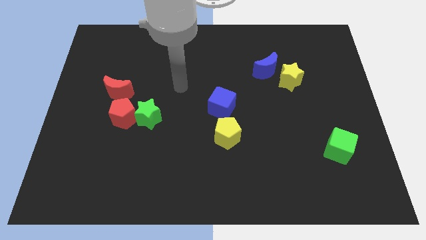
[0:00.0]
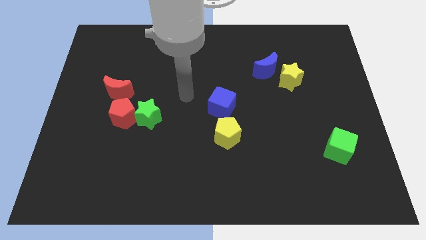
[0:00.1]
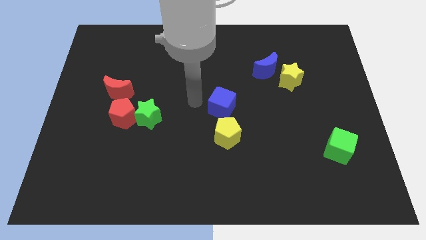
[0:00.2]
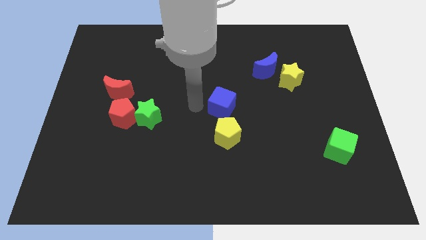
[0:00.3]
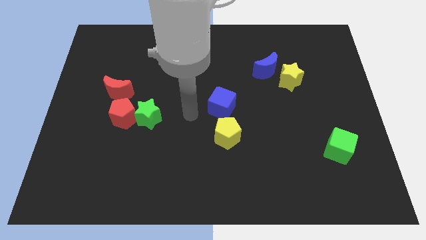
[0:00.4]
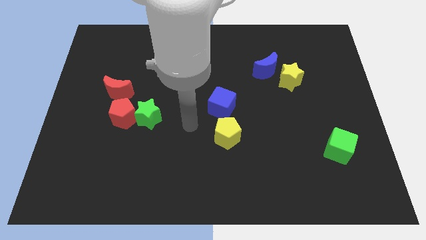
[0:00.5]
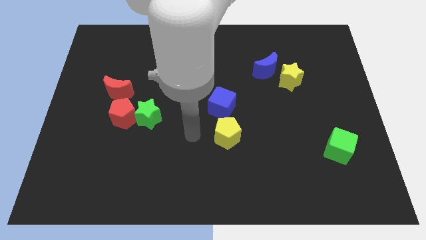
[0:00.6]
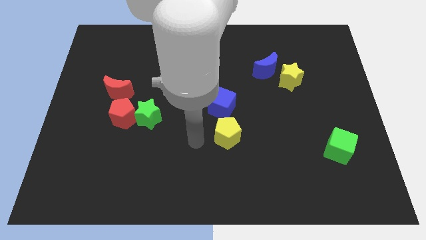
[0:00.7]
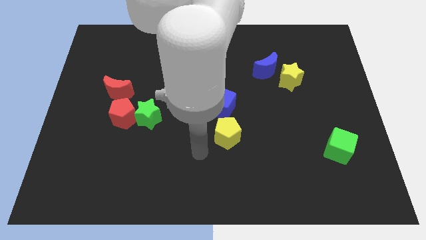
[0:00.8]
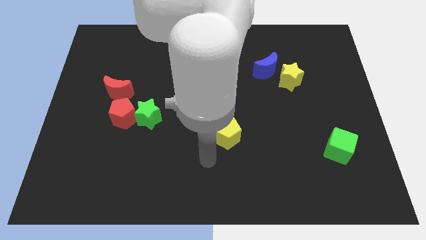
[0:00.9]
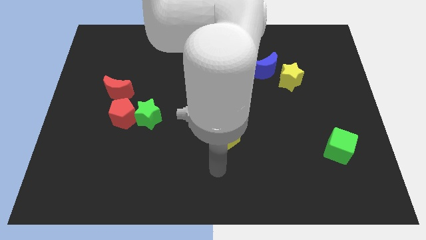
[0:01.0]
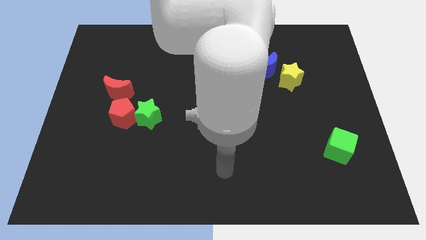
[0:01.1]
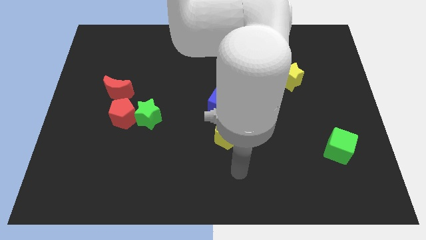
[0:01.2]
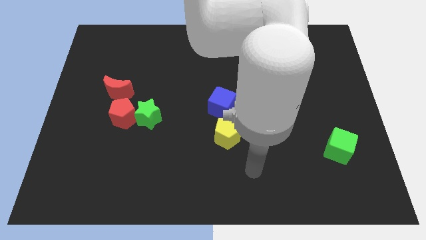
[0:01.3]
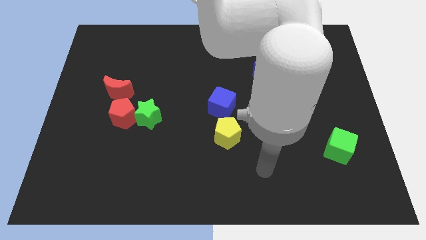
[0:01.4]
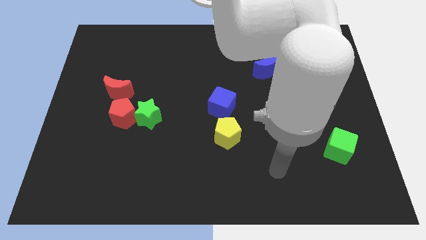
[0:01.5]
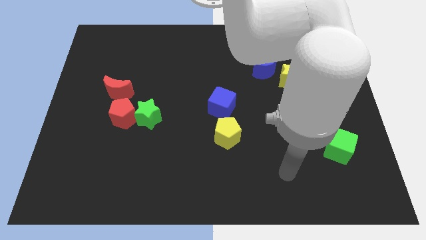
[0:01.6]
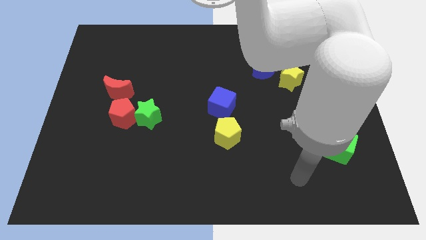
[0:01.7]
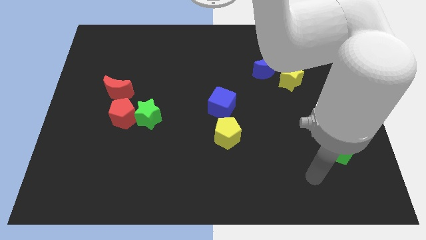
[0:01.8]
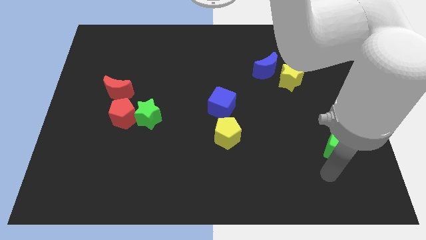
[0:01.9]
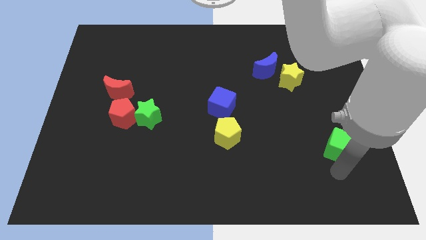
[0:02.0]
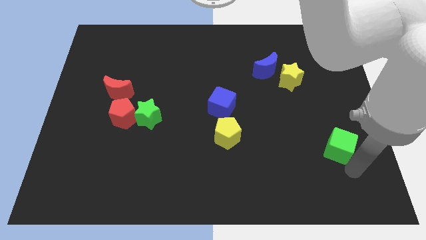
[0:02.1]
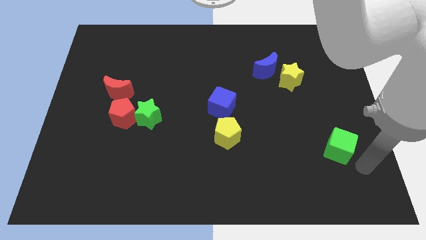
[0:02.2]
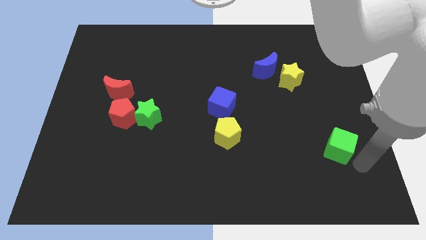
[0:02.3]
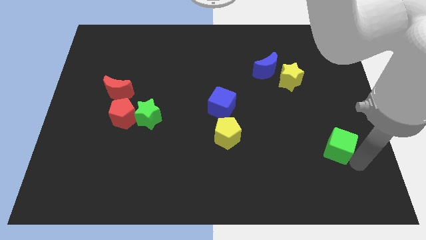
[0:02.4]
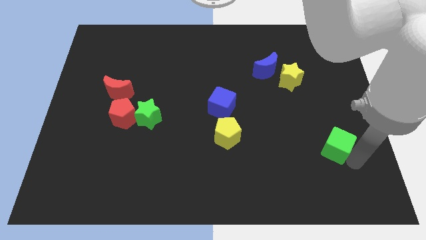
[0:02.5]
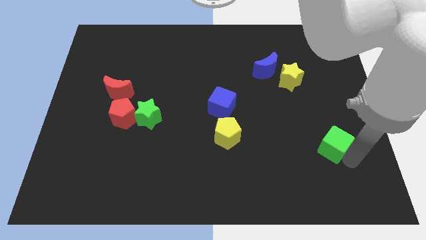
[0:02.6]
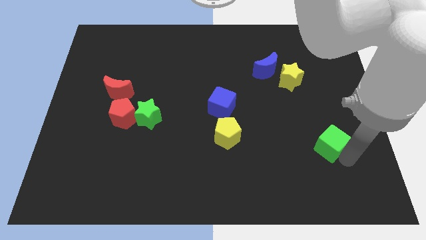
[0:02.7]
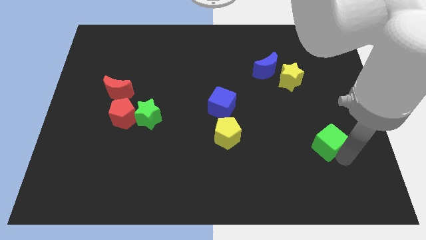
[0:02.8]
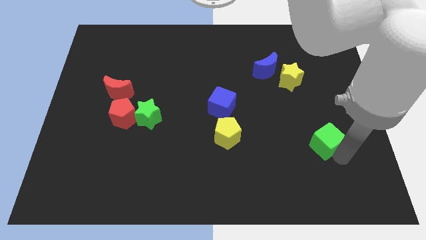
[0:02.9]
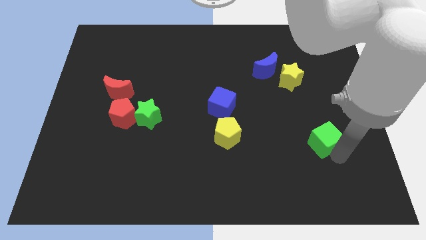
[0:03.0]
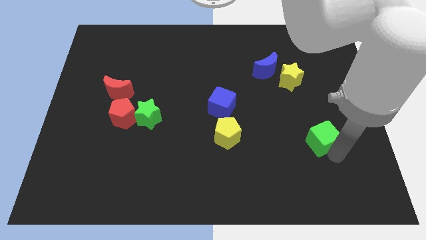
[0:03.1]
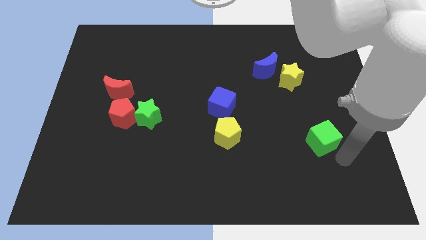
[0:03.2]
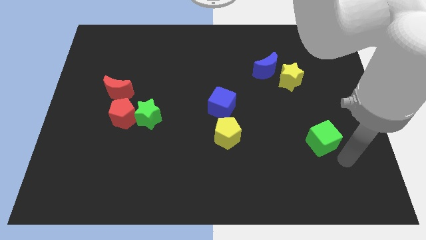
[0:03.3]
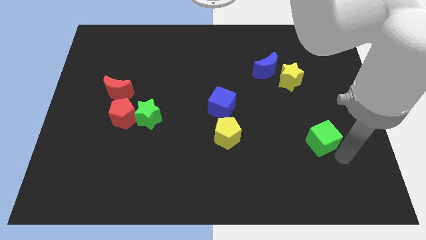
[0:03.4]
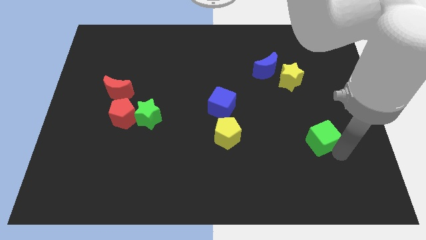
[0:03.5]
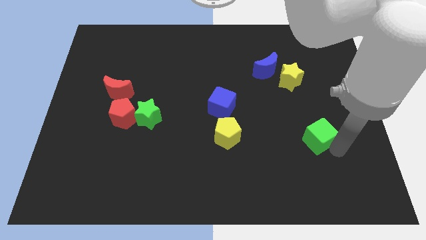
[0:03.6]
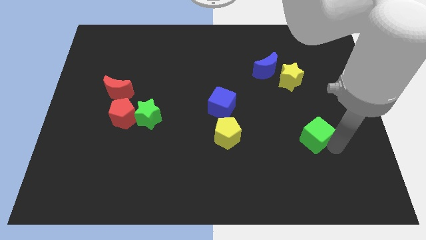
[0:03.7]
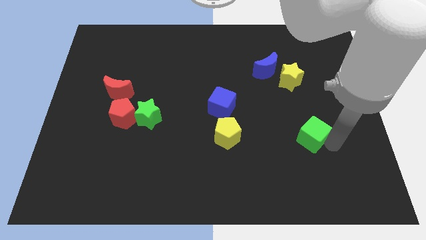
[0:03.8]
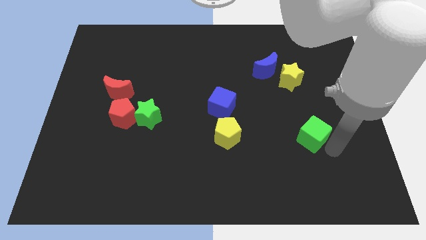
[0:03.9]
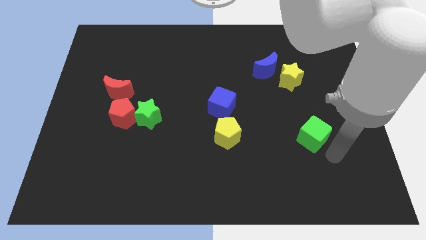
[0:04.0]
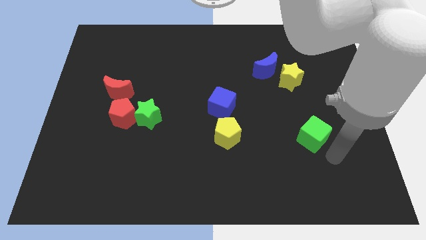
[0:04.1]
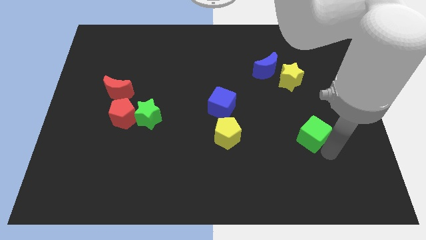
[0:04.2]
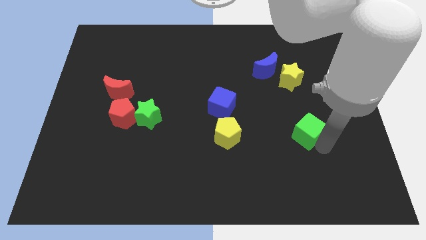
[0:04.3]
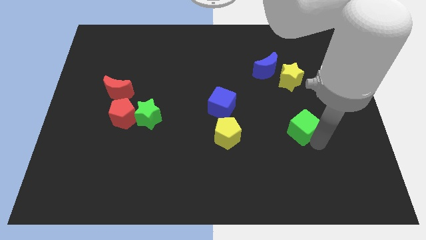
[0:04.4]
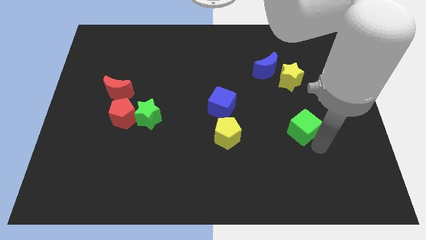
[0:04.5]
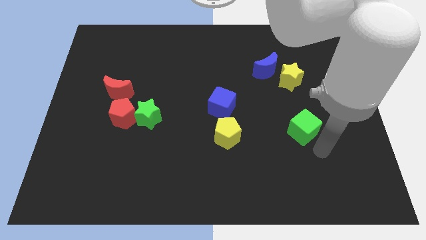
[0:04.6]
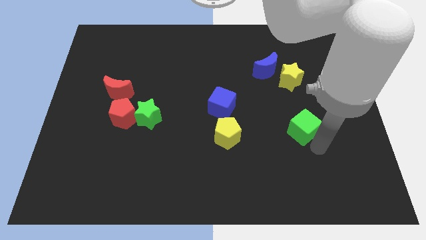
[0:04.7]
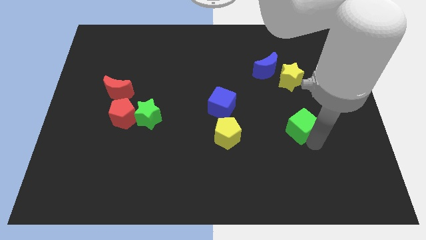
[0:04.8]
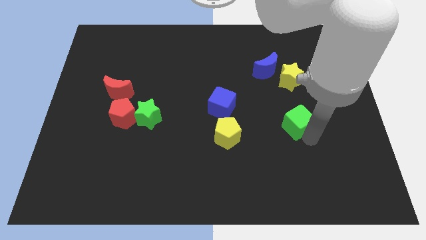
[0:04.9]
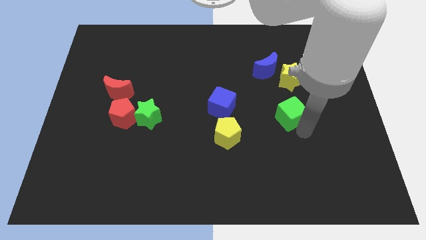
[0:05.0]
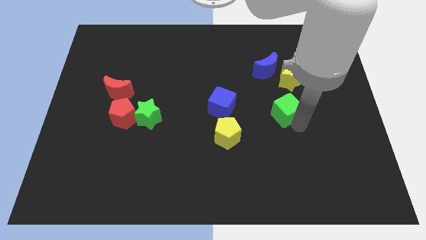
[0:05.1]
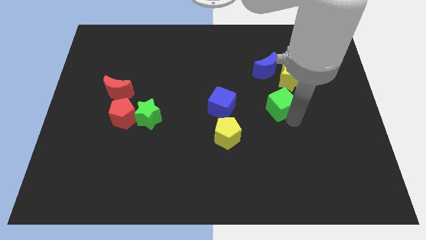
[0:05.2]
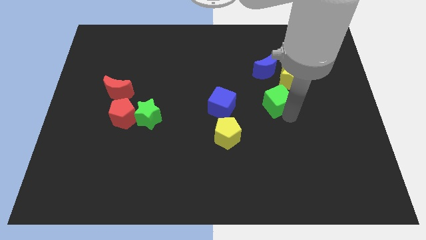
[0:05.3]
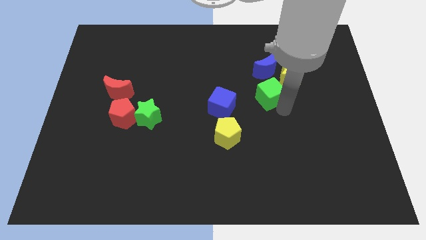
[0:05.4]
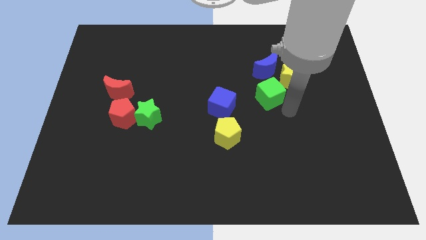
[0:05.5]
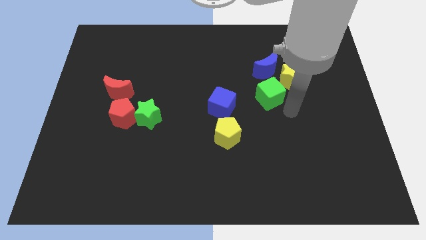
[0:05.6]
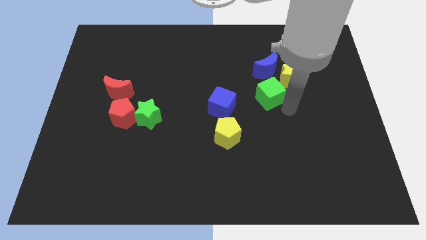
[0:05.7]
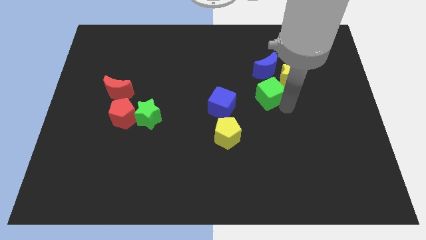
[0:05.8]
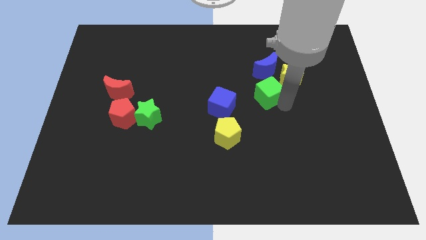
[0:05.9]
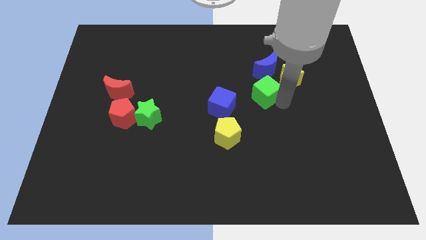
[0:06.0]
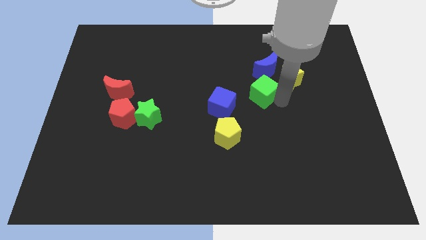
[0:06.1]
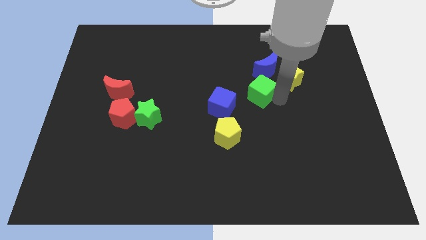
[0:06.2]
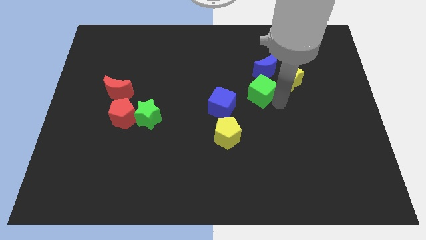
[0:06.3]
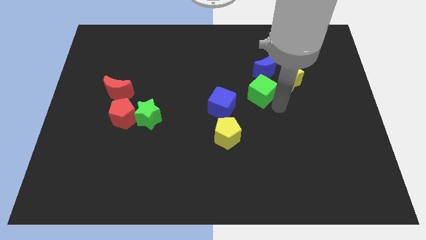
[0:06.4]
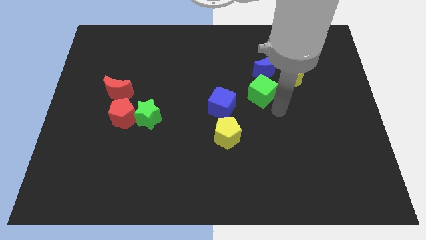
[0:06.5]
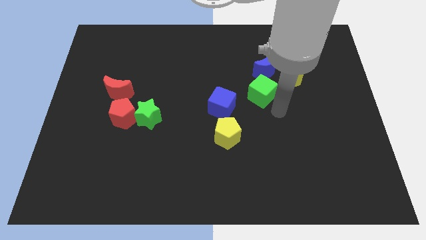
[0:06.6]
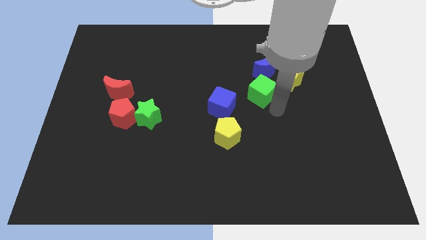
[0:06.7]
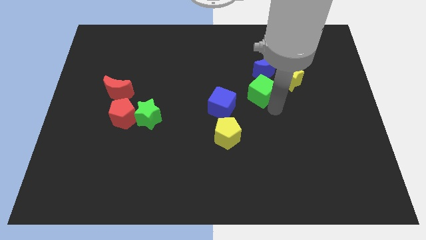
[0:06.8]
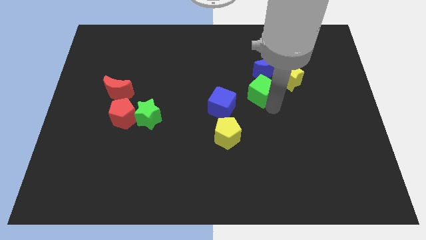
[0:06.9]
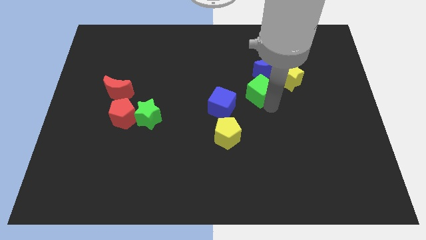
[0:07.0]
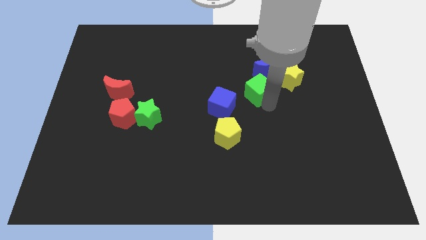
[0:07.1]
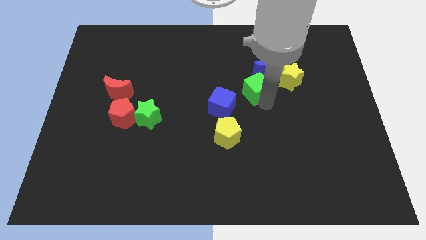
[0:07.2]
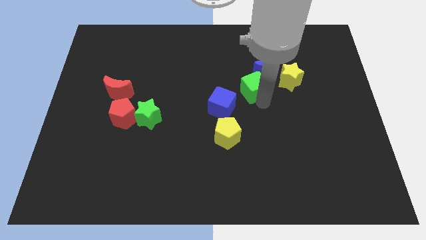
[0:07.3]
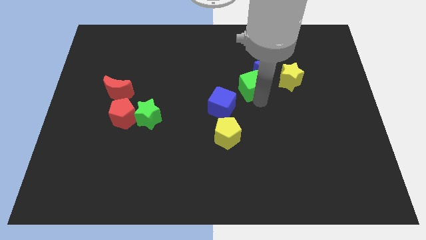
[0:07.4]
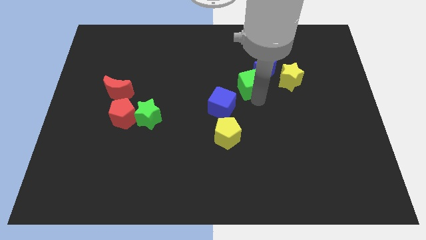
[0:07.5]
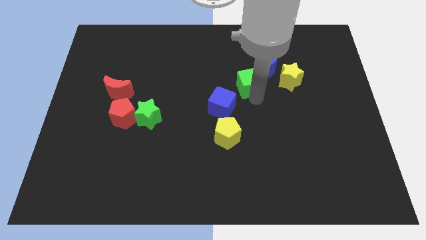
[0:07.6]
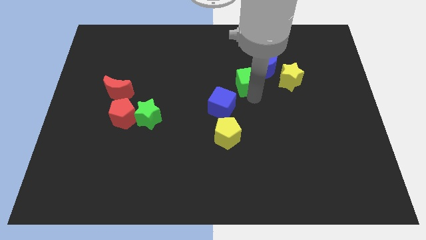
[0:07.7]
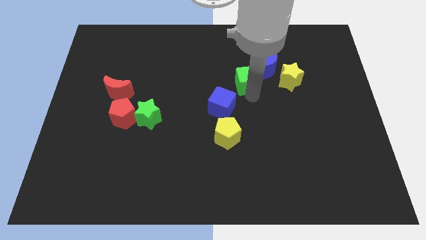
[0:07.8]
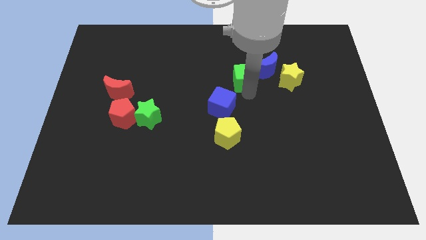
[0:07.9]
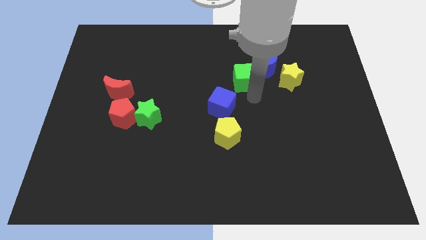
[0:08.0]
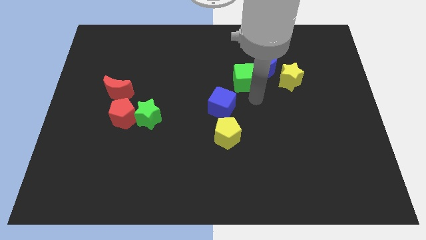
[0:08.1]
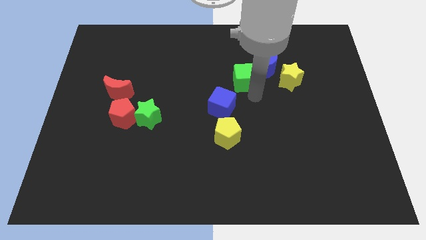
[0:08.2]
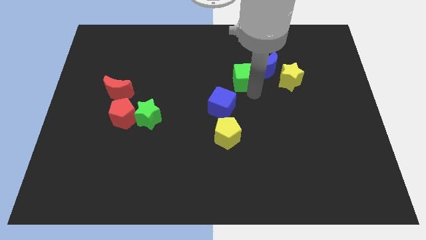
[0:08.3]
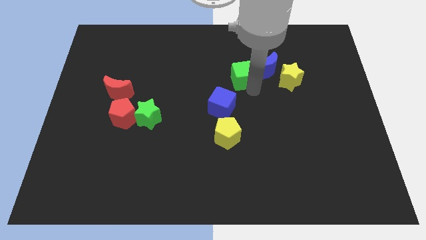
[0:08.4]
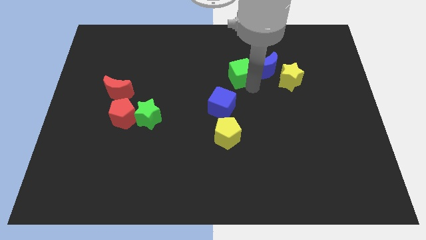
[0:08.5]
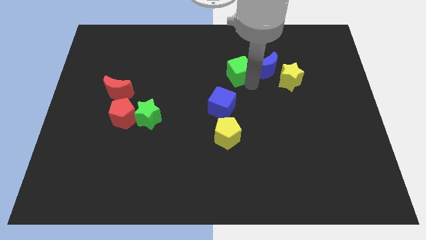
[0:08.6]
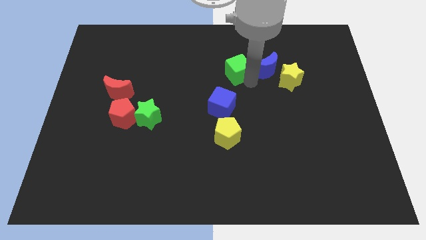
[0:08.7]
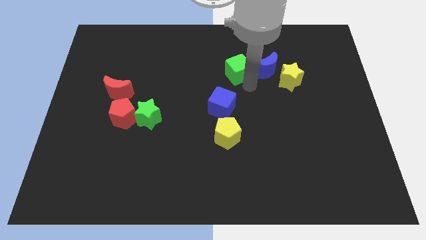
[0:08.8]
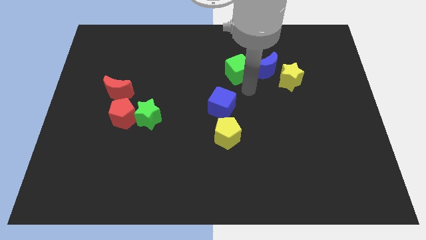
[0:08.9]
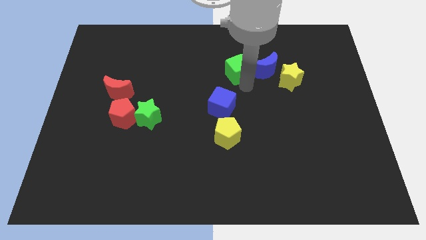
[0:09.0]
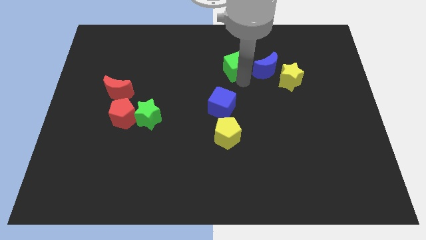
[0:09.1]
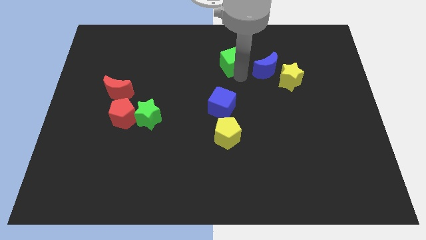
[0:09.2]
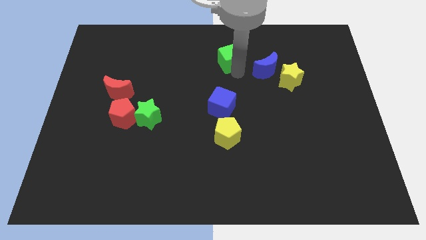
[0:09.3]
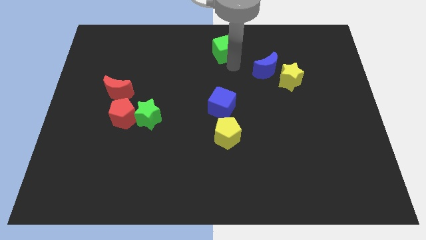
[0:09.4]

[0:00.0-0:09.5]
push the green cube to the top side
